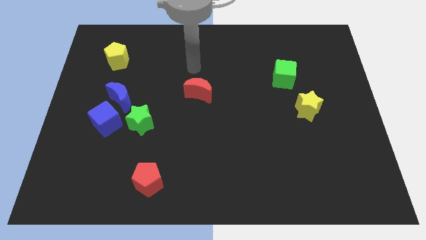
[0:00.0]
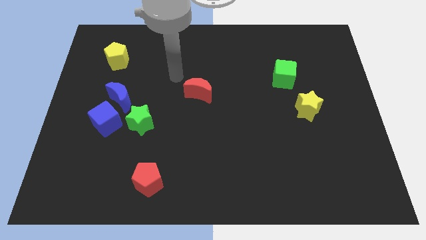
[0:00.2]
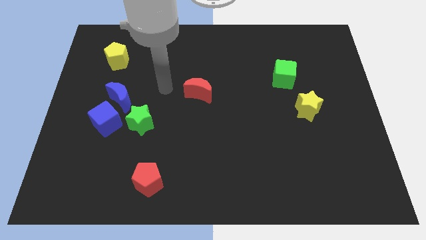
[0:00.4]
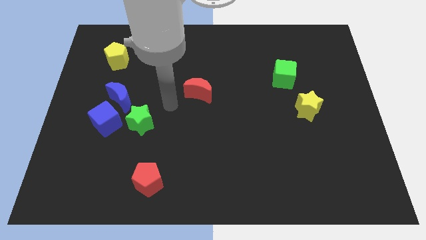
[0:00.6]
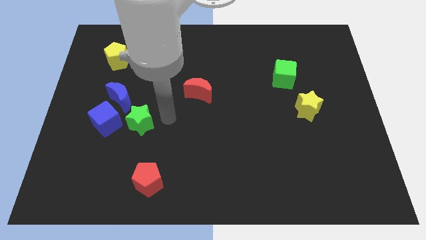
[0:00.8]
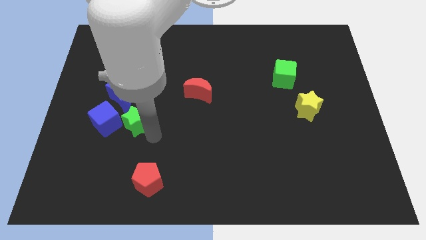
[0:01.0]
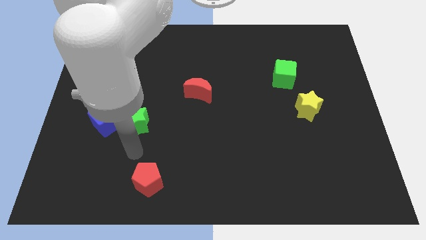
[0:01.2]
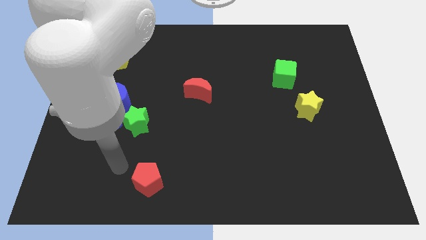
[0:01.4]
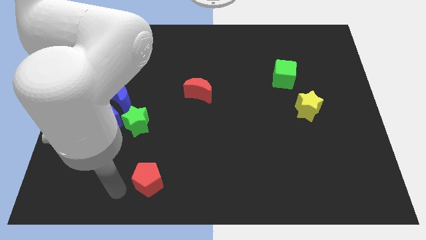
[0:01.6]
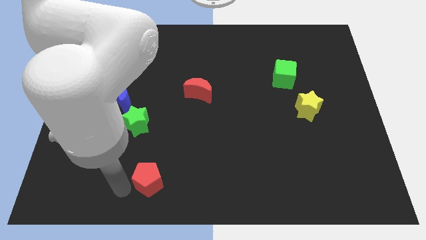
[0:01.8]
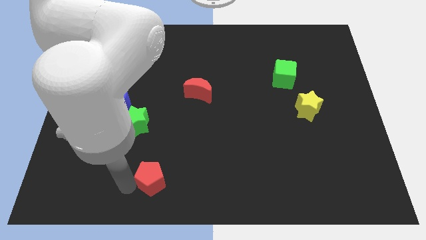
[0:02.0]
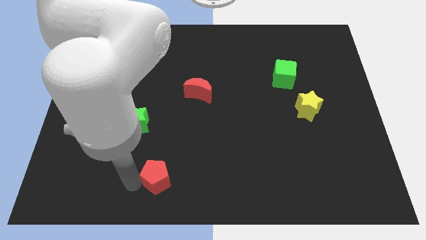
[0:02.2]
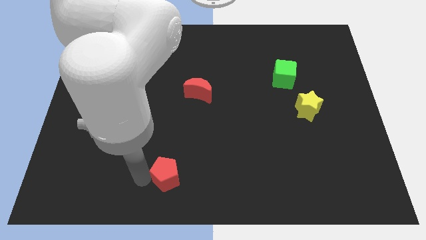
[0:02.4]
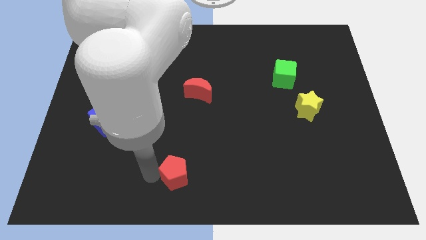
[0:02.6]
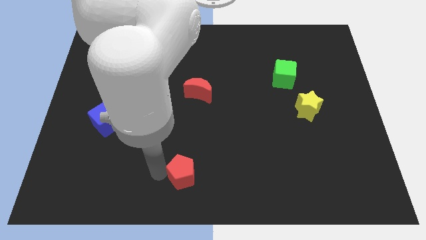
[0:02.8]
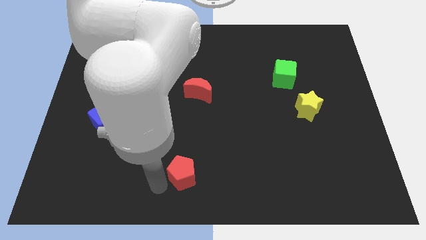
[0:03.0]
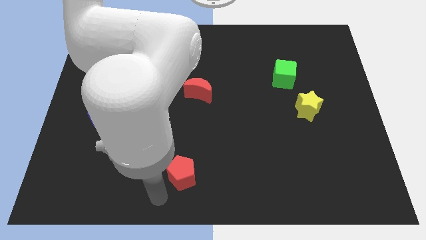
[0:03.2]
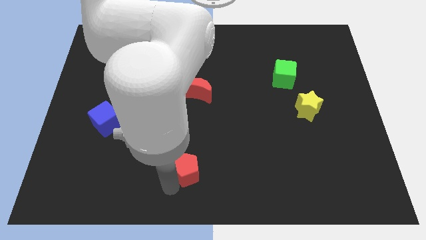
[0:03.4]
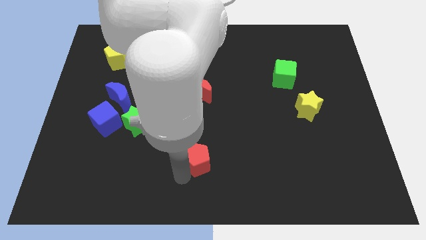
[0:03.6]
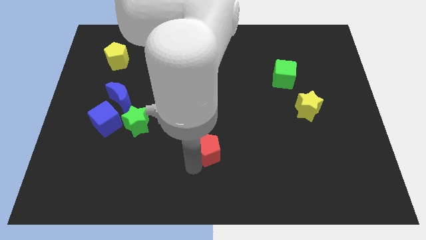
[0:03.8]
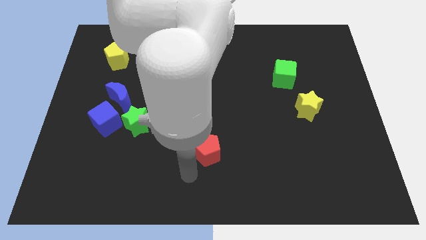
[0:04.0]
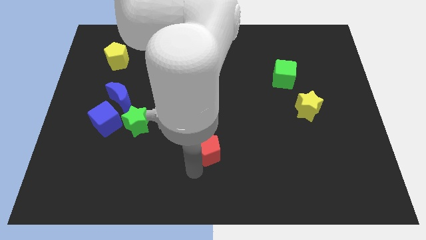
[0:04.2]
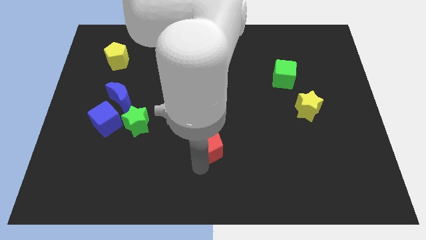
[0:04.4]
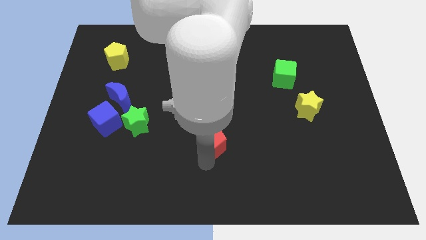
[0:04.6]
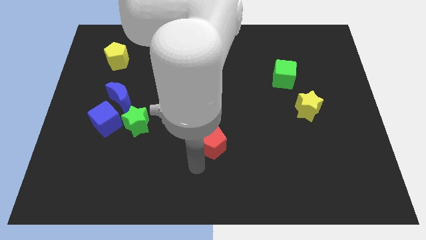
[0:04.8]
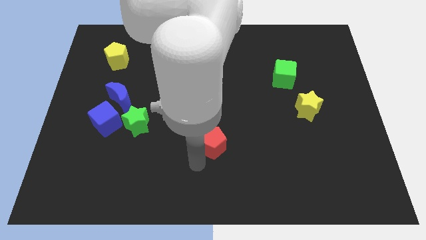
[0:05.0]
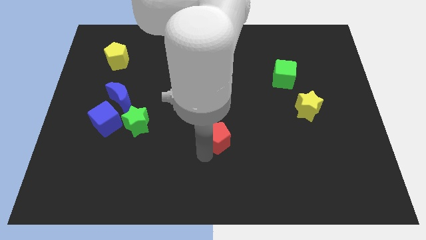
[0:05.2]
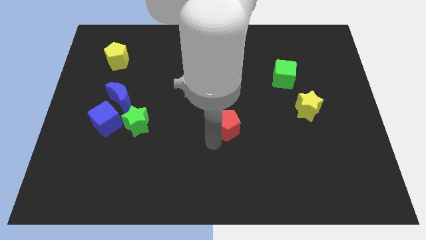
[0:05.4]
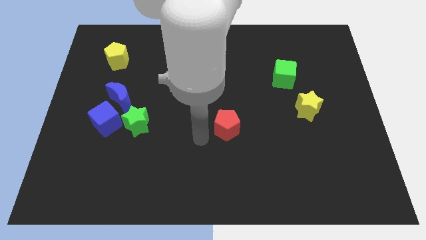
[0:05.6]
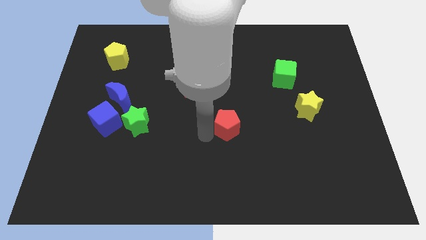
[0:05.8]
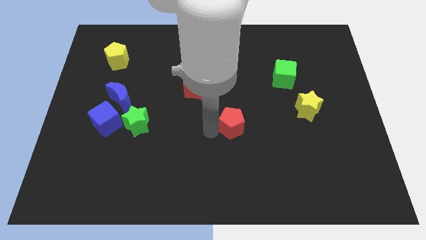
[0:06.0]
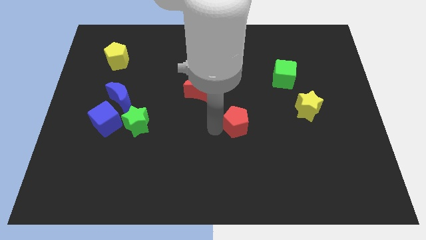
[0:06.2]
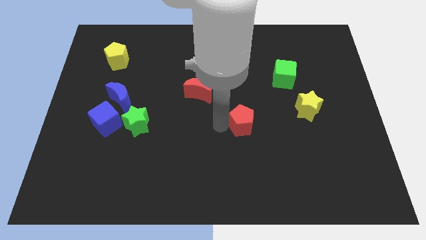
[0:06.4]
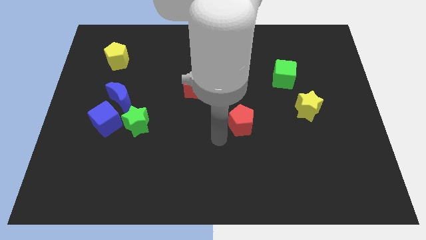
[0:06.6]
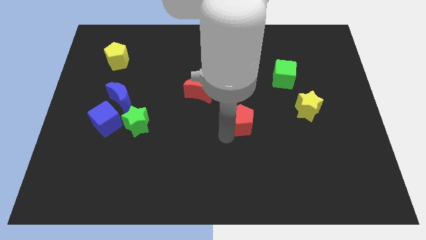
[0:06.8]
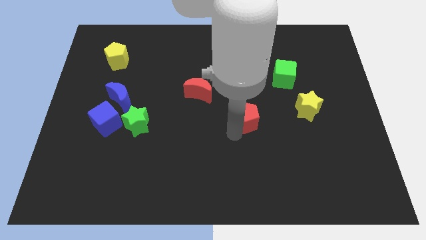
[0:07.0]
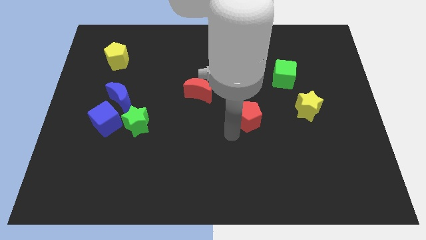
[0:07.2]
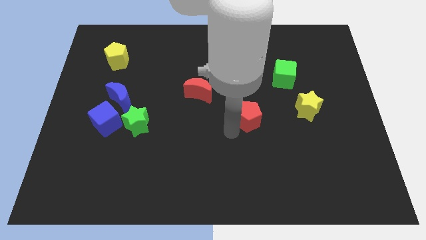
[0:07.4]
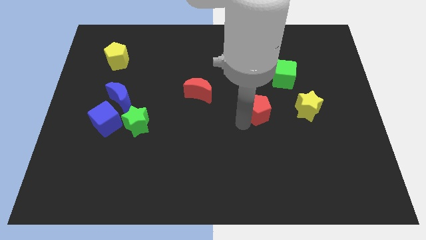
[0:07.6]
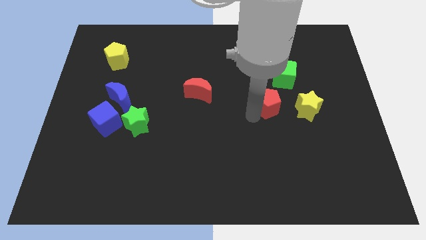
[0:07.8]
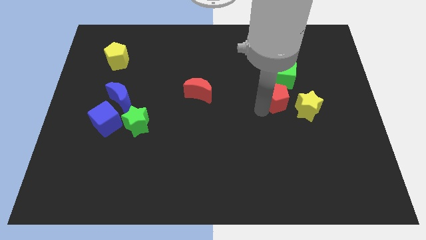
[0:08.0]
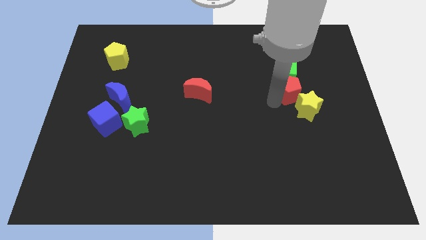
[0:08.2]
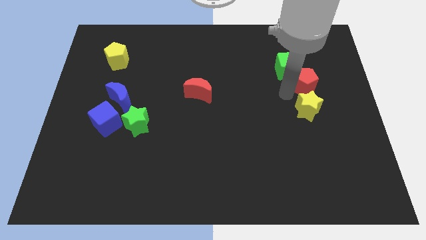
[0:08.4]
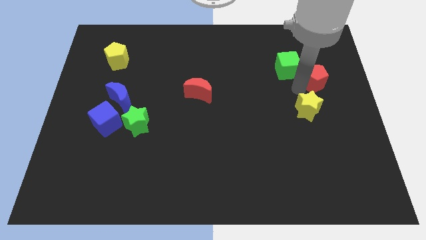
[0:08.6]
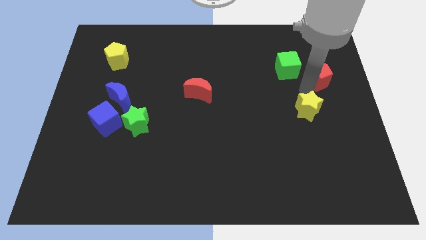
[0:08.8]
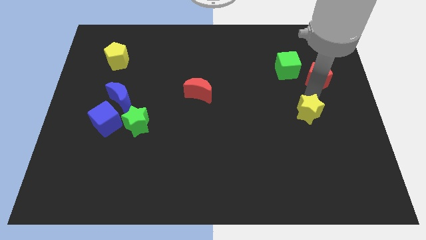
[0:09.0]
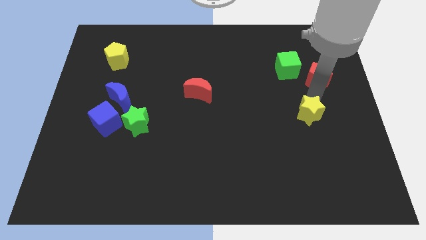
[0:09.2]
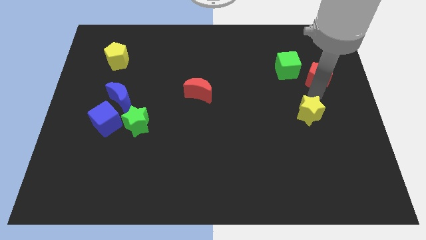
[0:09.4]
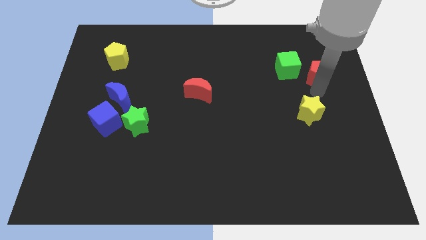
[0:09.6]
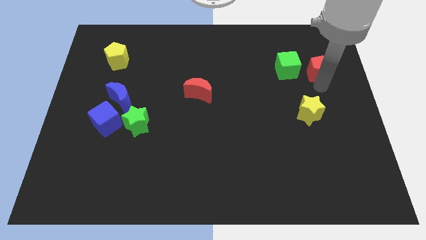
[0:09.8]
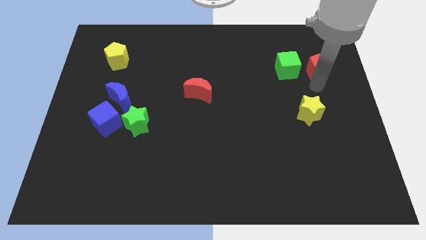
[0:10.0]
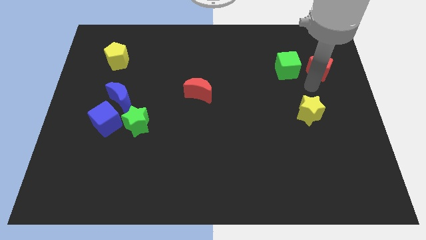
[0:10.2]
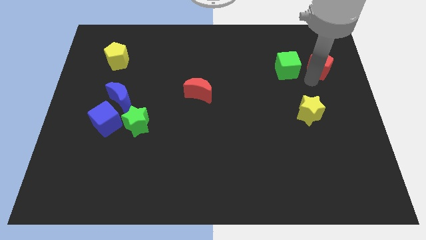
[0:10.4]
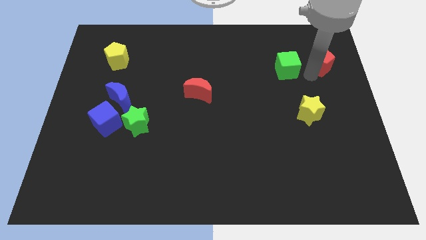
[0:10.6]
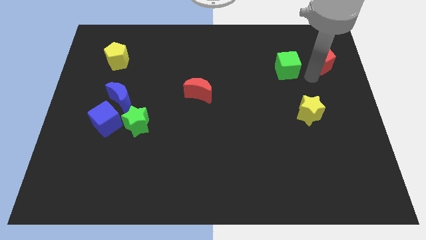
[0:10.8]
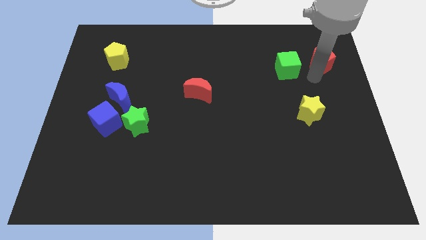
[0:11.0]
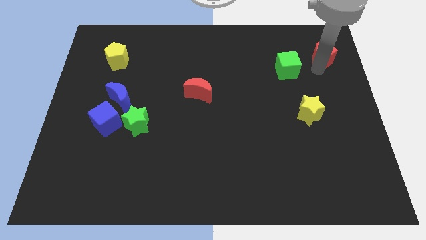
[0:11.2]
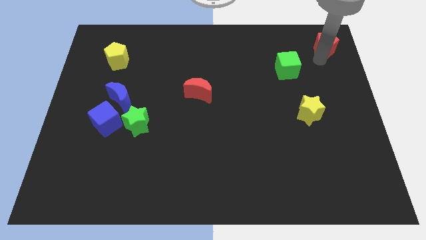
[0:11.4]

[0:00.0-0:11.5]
move the red pentagon to the top right of the board

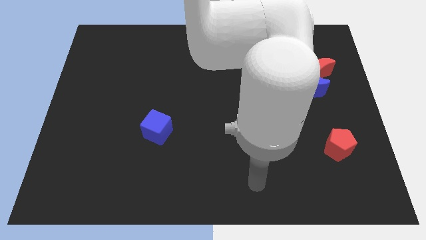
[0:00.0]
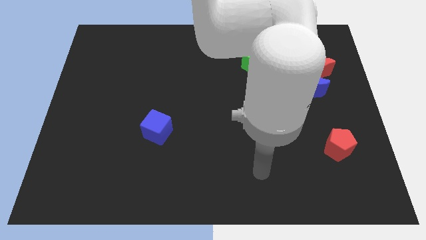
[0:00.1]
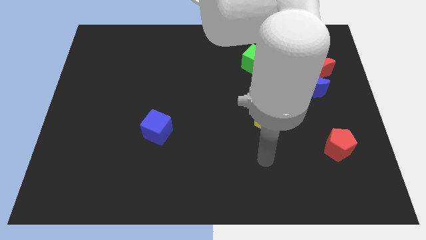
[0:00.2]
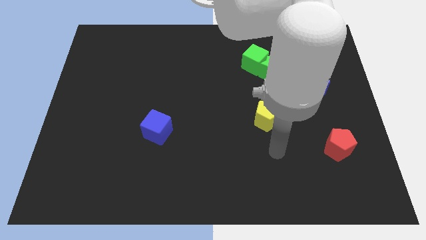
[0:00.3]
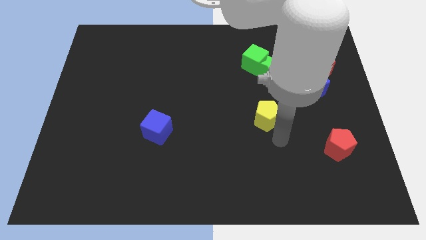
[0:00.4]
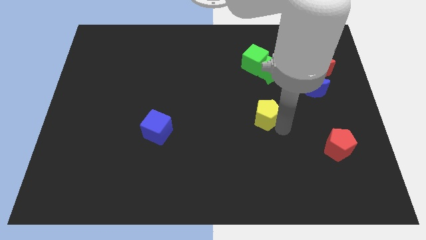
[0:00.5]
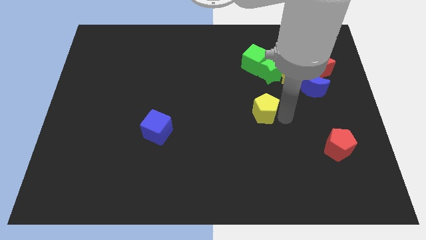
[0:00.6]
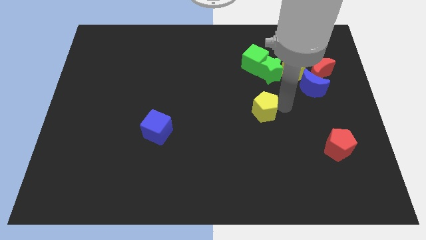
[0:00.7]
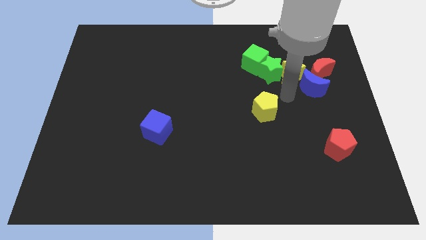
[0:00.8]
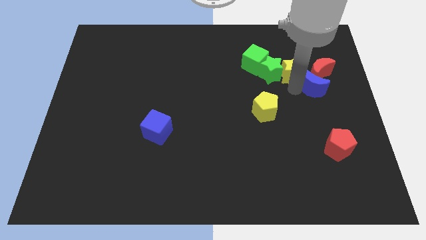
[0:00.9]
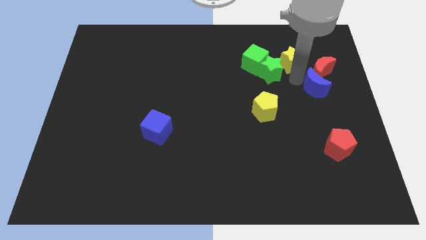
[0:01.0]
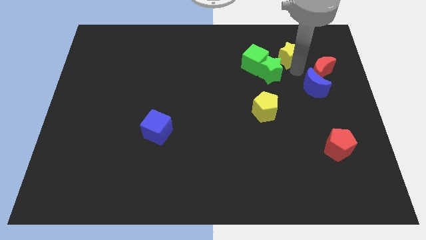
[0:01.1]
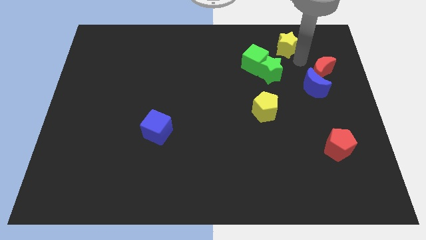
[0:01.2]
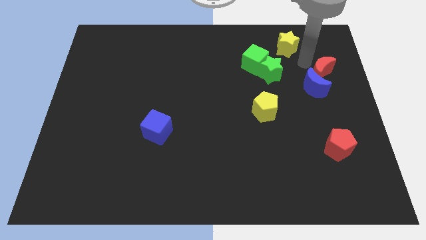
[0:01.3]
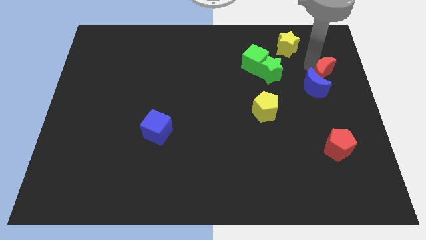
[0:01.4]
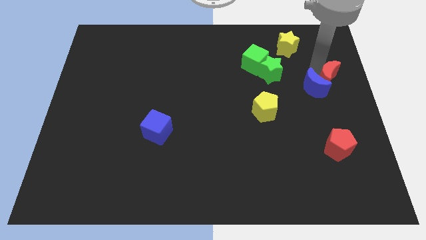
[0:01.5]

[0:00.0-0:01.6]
push the red moon to the center right
